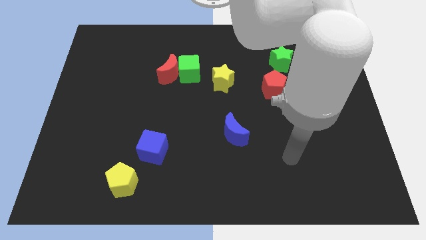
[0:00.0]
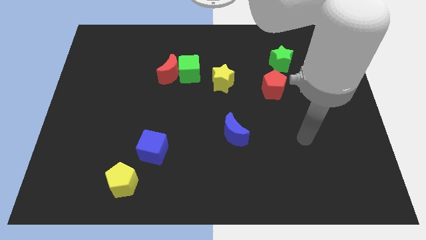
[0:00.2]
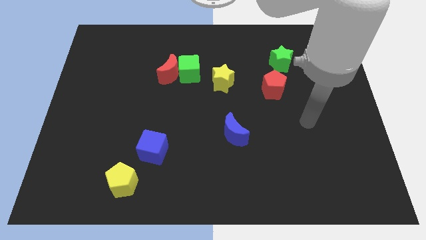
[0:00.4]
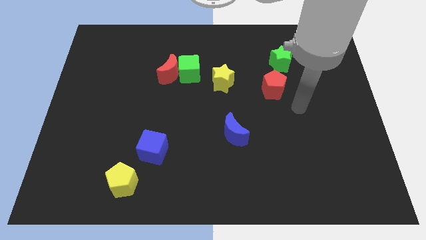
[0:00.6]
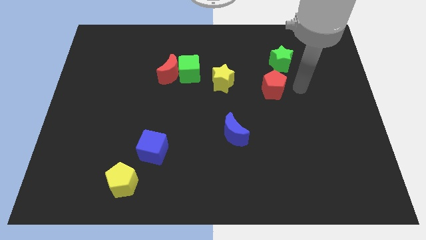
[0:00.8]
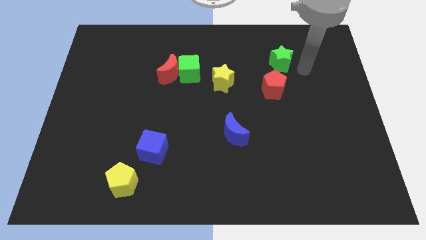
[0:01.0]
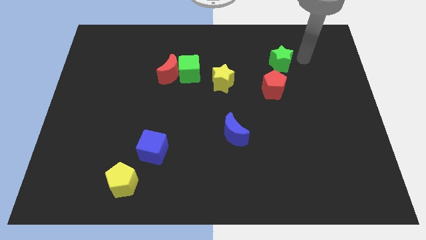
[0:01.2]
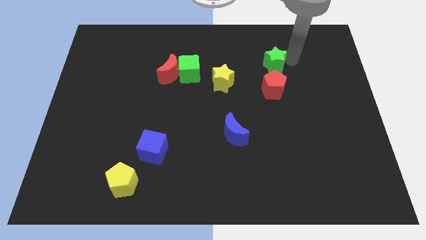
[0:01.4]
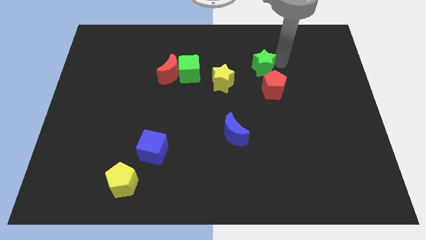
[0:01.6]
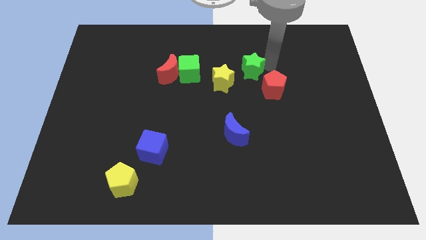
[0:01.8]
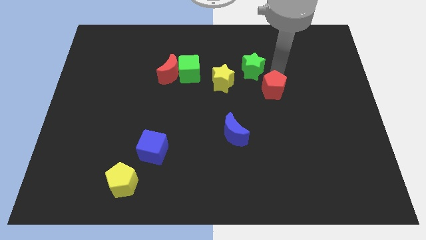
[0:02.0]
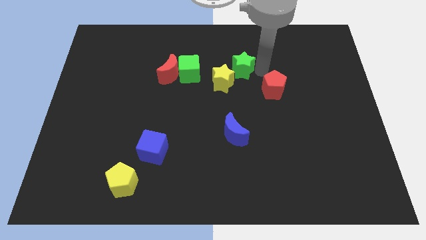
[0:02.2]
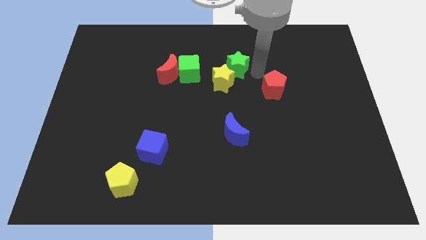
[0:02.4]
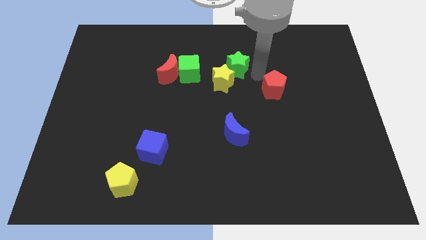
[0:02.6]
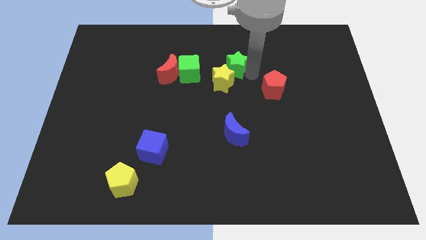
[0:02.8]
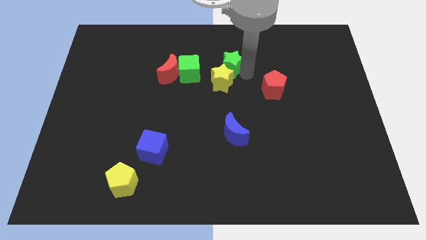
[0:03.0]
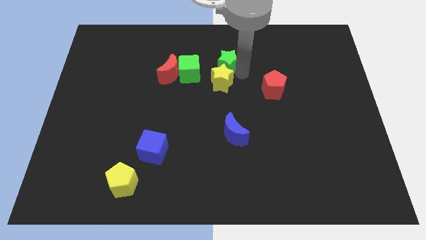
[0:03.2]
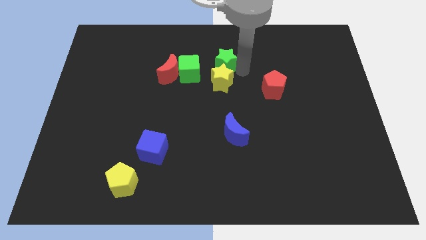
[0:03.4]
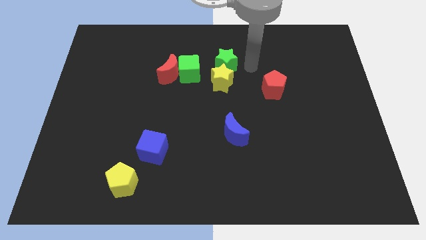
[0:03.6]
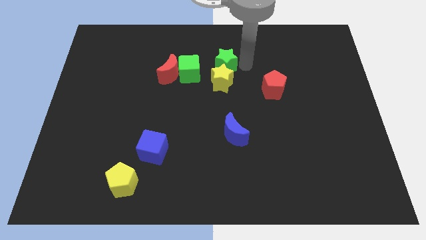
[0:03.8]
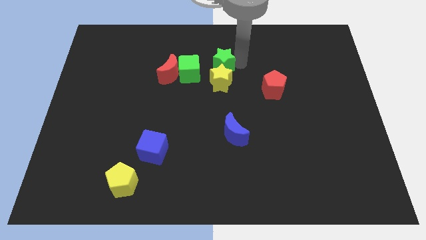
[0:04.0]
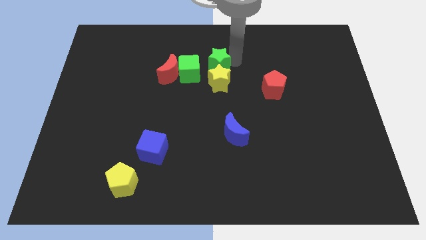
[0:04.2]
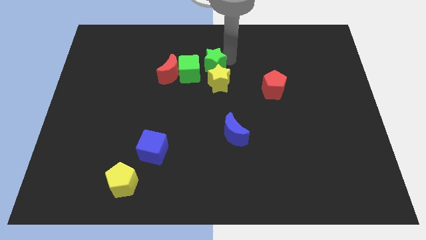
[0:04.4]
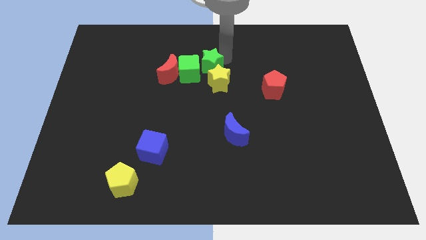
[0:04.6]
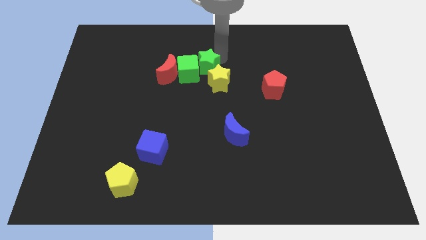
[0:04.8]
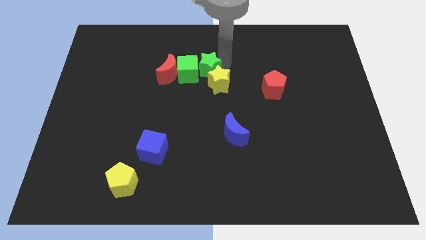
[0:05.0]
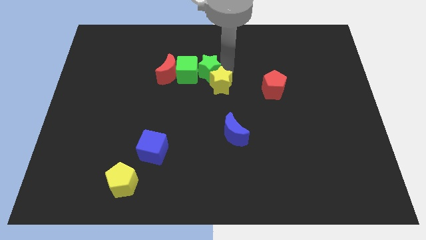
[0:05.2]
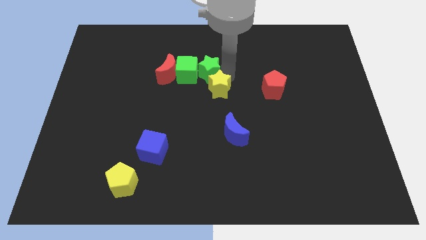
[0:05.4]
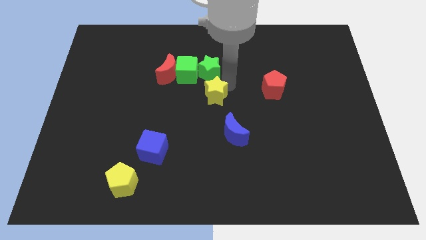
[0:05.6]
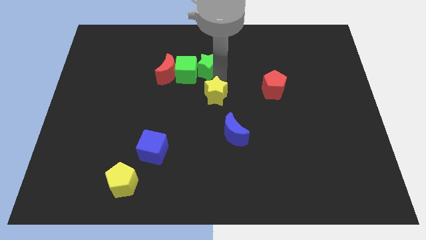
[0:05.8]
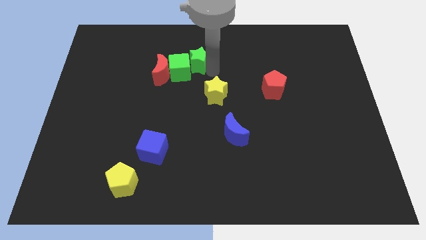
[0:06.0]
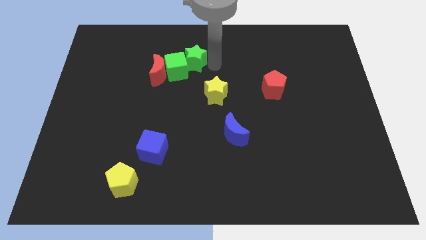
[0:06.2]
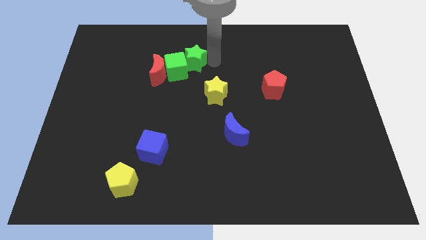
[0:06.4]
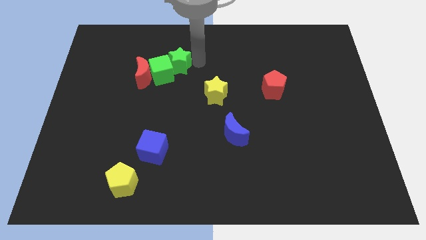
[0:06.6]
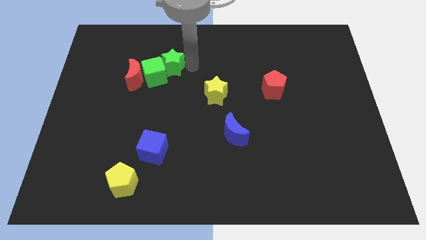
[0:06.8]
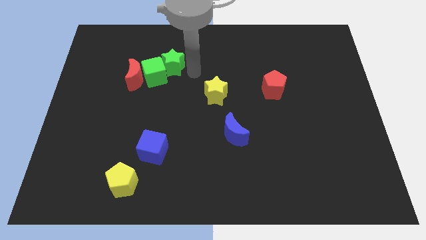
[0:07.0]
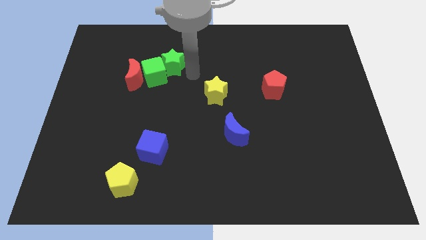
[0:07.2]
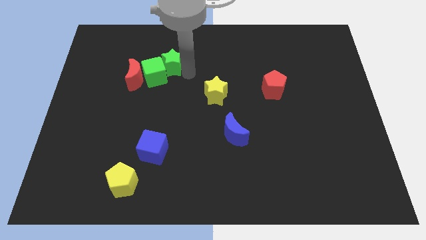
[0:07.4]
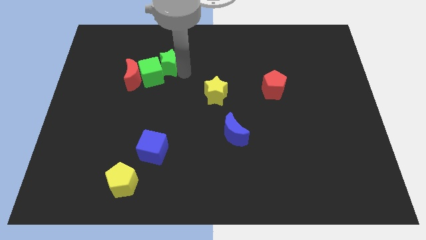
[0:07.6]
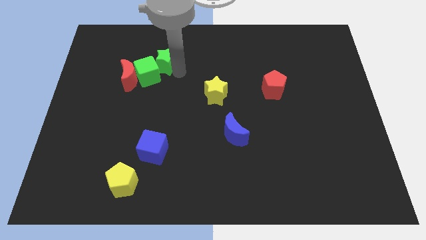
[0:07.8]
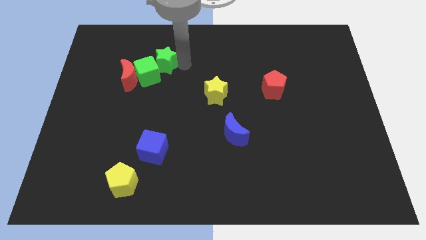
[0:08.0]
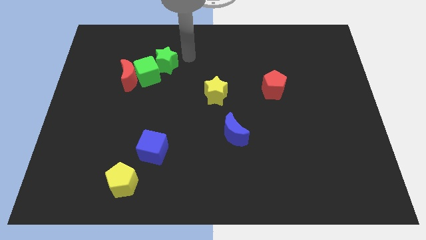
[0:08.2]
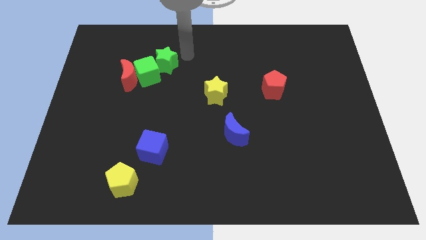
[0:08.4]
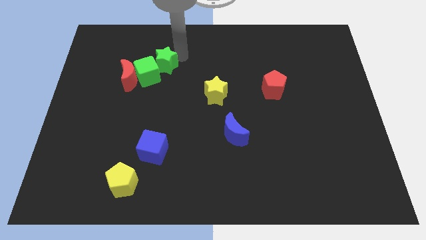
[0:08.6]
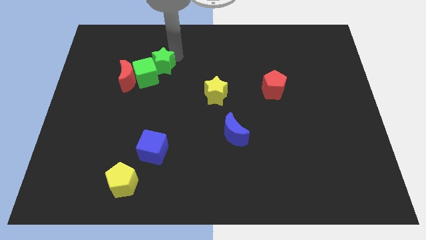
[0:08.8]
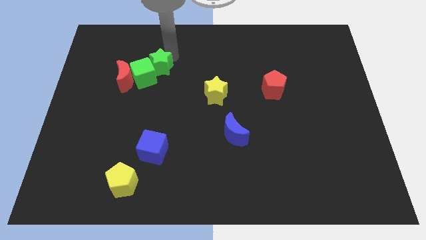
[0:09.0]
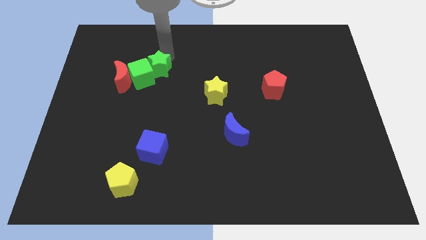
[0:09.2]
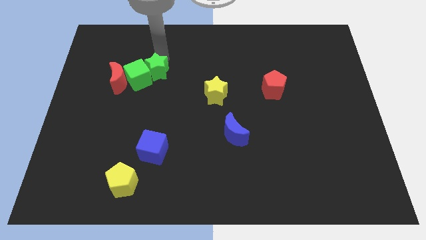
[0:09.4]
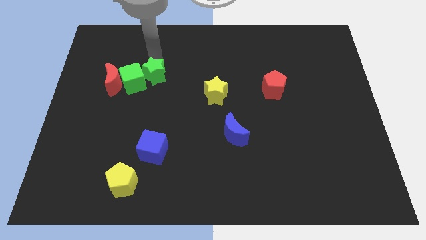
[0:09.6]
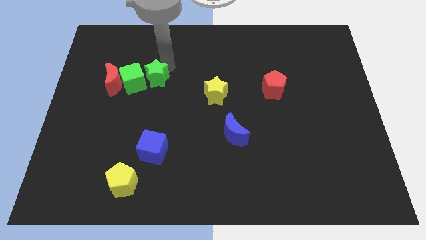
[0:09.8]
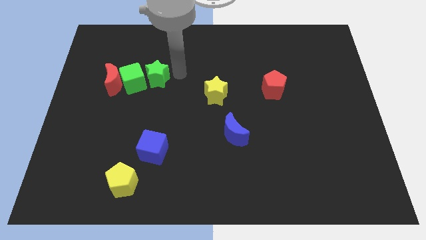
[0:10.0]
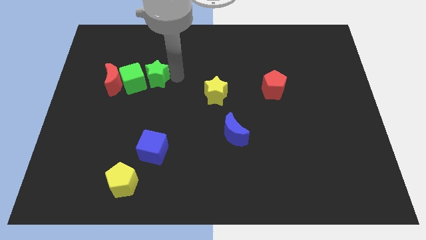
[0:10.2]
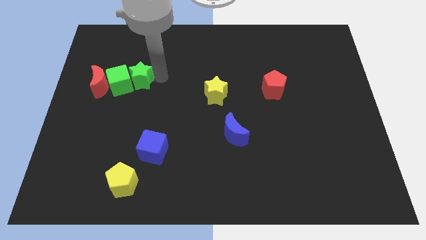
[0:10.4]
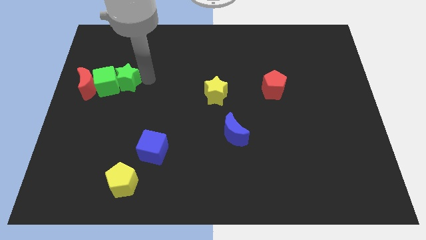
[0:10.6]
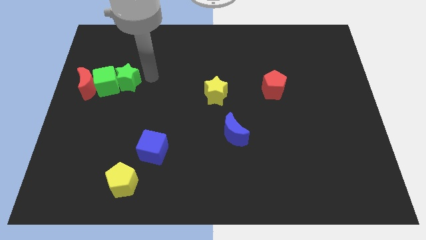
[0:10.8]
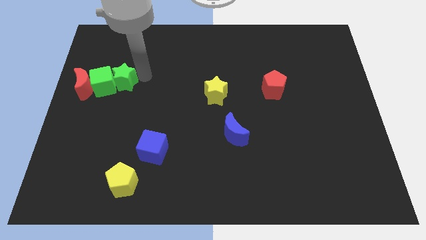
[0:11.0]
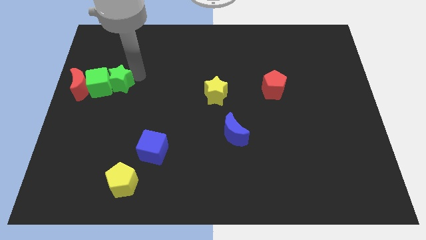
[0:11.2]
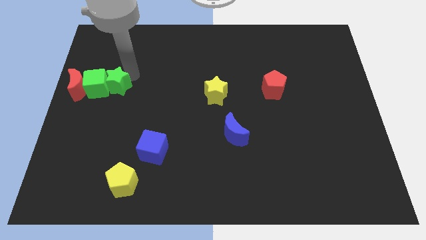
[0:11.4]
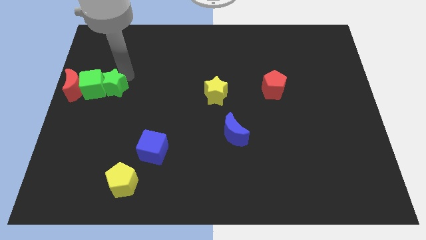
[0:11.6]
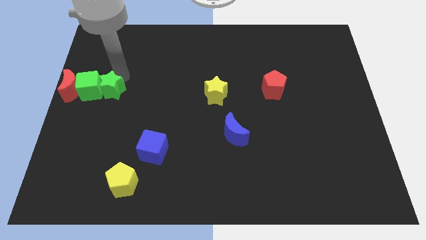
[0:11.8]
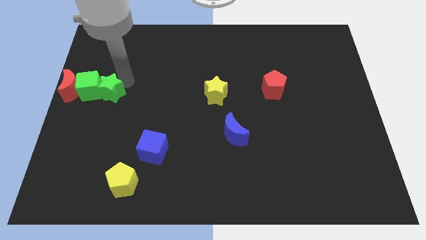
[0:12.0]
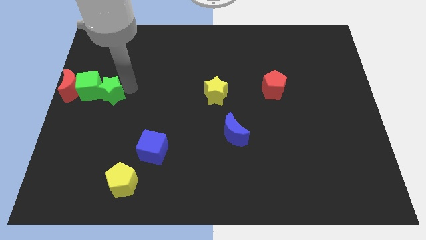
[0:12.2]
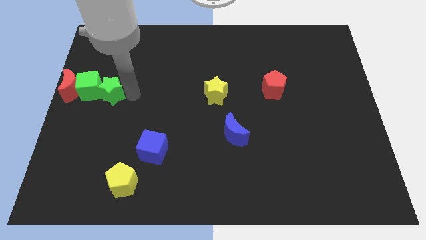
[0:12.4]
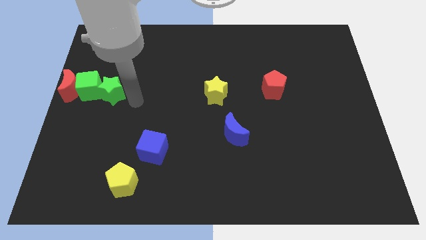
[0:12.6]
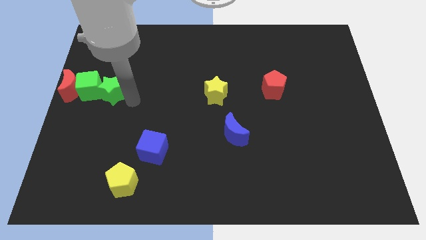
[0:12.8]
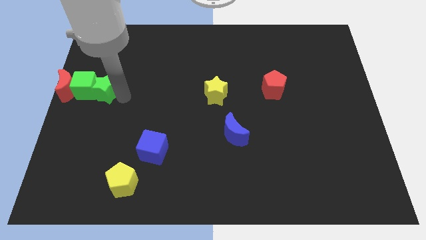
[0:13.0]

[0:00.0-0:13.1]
put the green star to the left side
